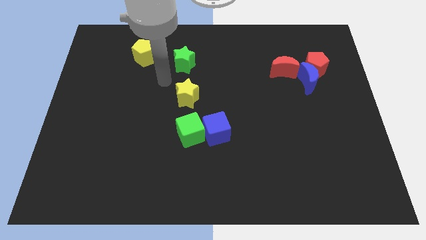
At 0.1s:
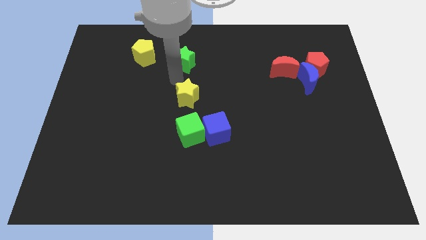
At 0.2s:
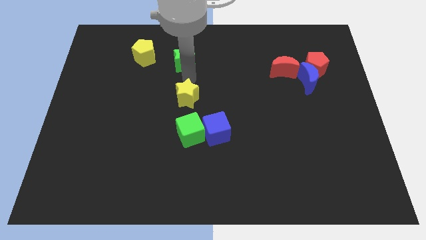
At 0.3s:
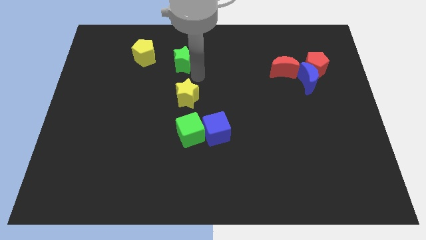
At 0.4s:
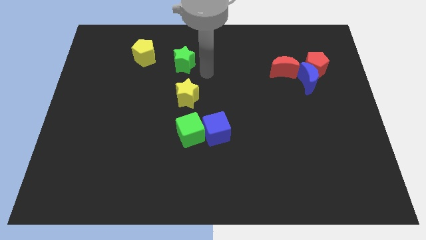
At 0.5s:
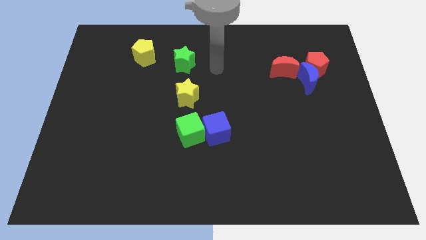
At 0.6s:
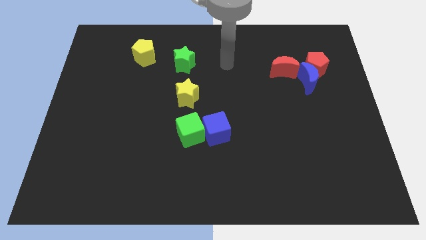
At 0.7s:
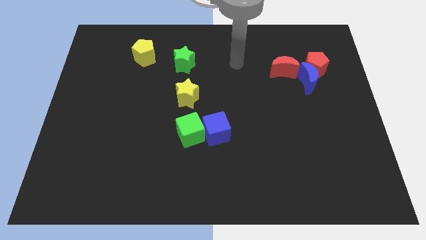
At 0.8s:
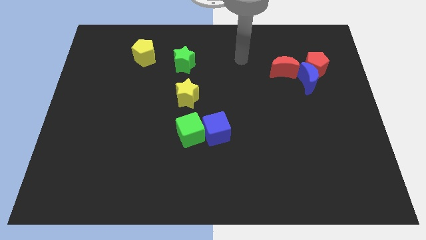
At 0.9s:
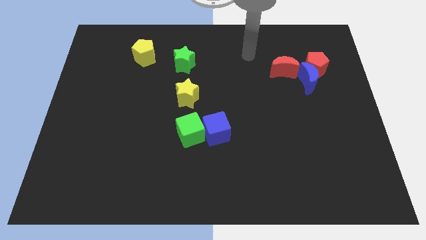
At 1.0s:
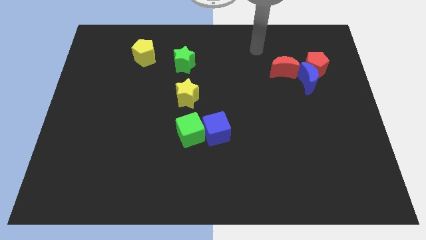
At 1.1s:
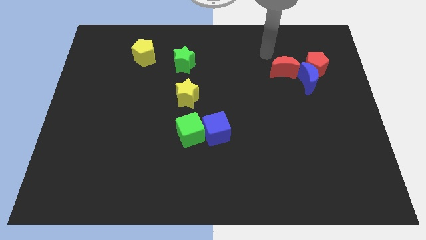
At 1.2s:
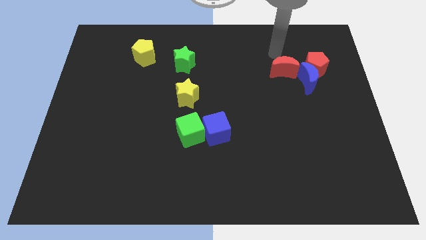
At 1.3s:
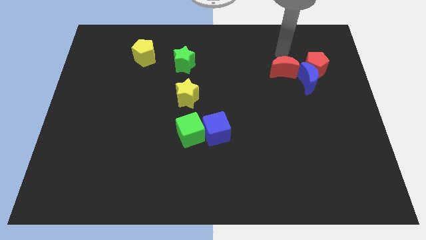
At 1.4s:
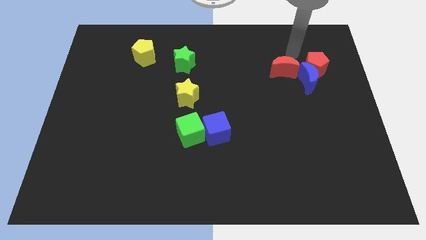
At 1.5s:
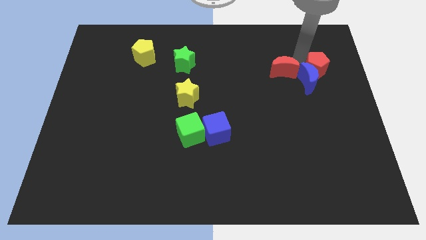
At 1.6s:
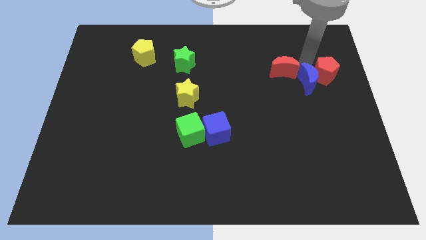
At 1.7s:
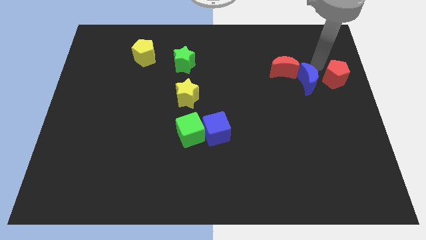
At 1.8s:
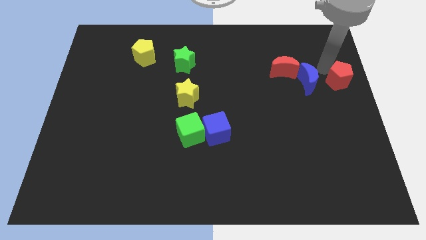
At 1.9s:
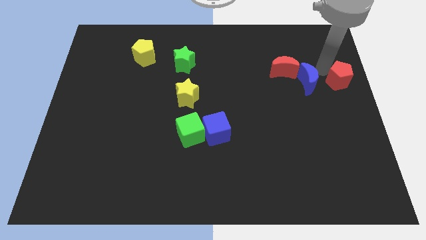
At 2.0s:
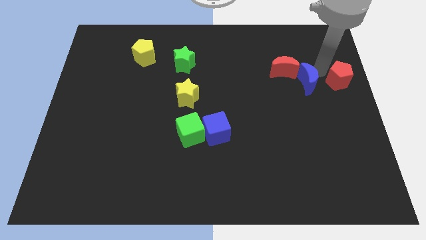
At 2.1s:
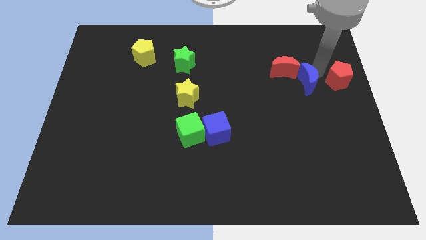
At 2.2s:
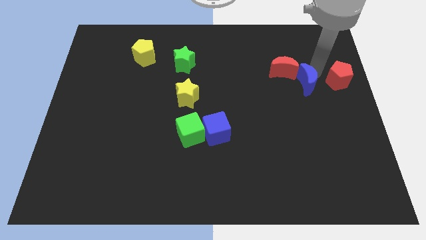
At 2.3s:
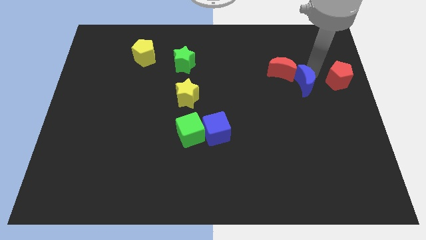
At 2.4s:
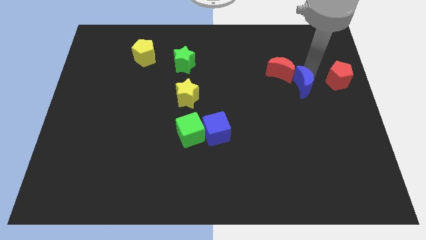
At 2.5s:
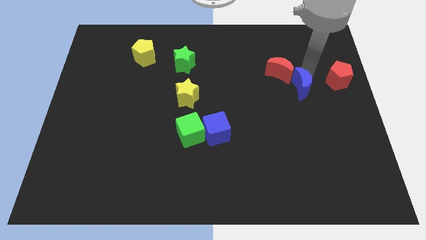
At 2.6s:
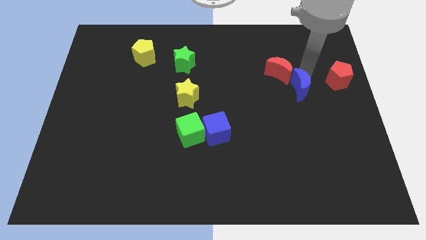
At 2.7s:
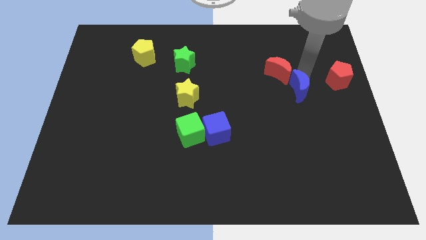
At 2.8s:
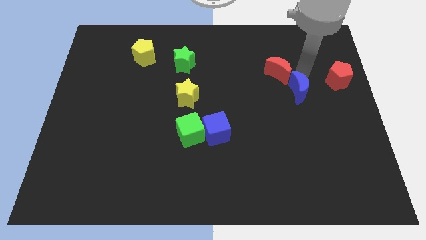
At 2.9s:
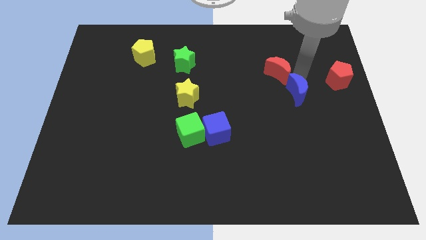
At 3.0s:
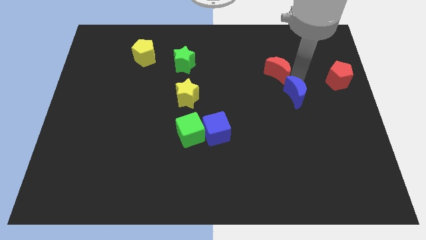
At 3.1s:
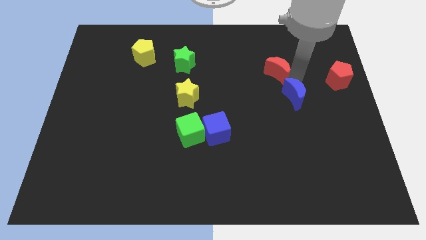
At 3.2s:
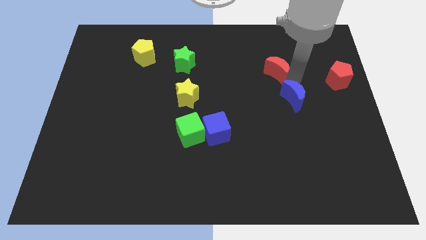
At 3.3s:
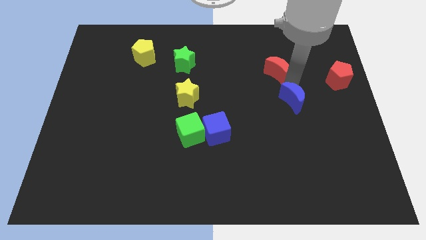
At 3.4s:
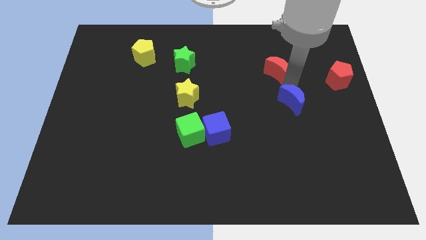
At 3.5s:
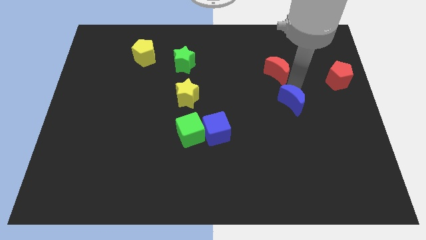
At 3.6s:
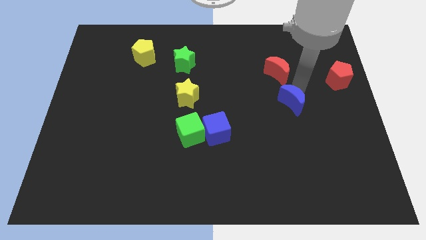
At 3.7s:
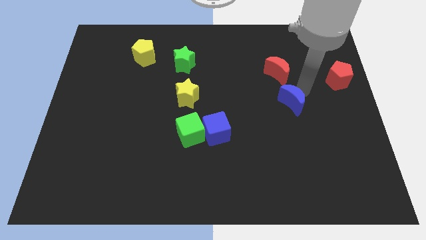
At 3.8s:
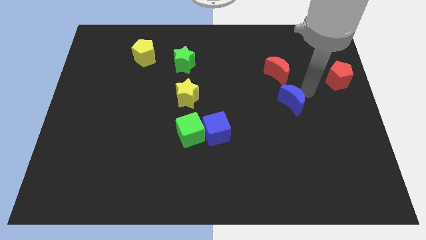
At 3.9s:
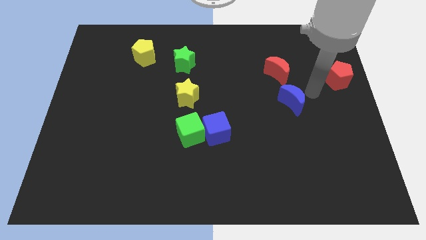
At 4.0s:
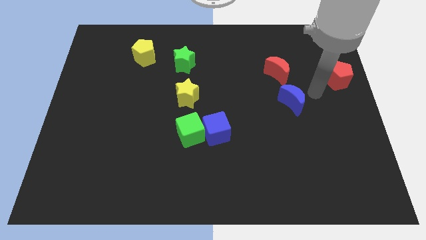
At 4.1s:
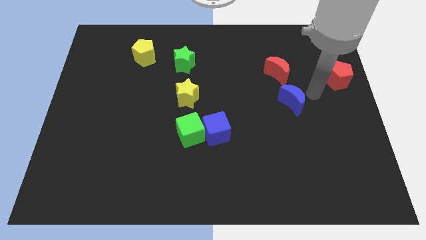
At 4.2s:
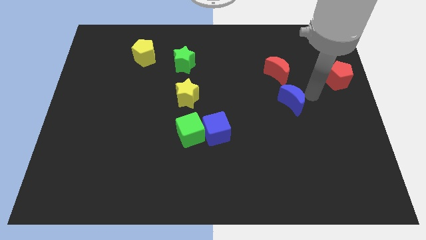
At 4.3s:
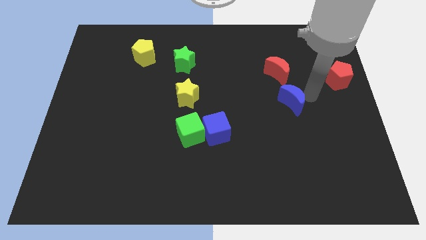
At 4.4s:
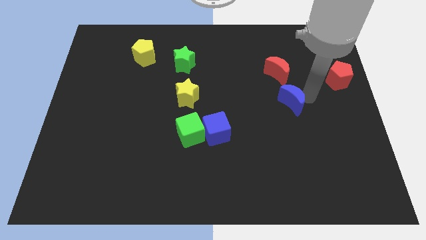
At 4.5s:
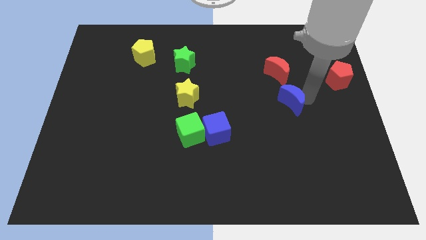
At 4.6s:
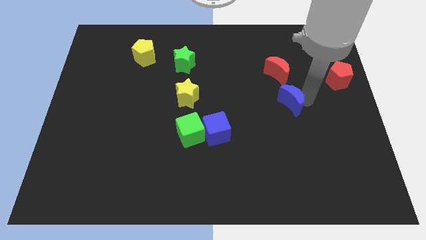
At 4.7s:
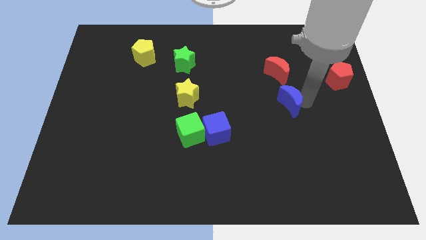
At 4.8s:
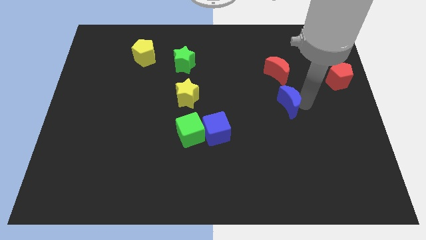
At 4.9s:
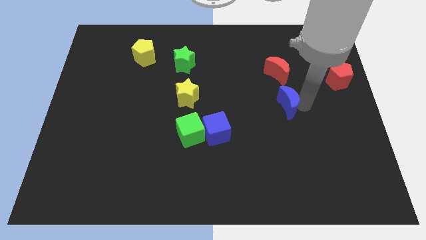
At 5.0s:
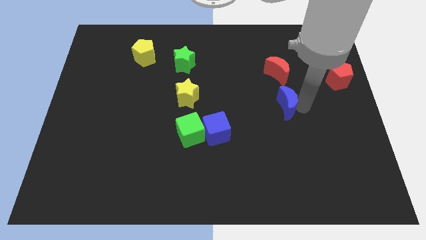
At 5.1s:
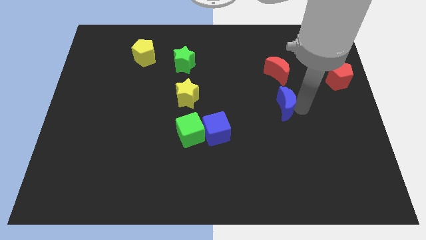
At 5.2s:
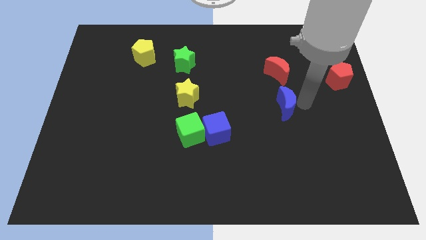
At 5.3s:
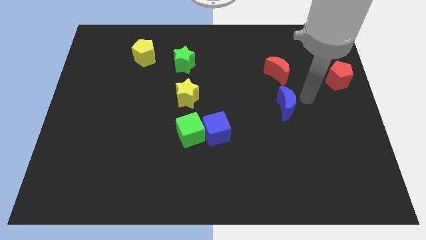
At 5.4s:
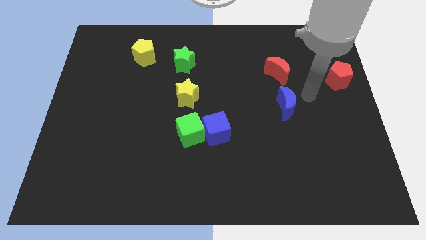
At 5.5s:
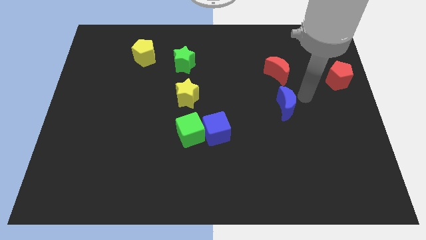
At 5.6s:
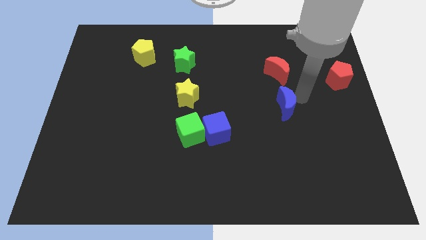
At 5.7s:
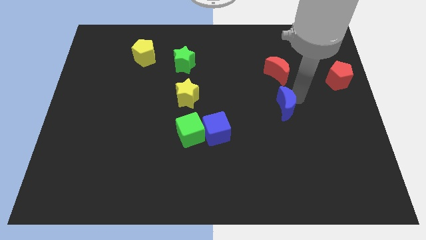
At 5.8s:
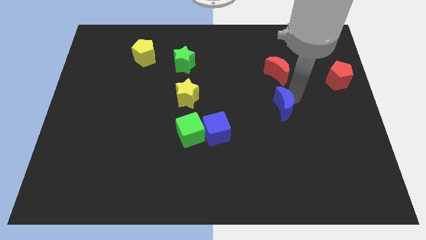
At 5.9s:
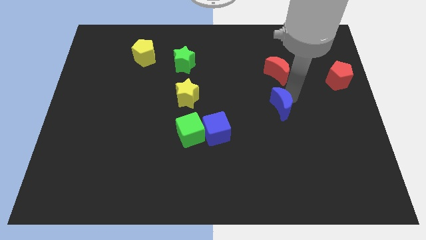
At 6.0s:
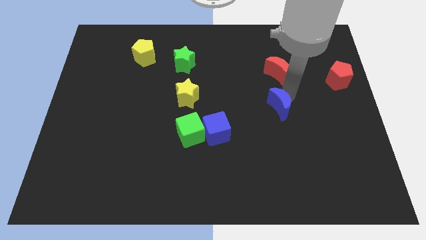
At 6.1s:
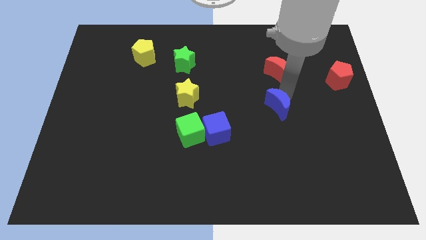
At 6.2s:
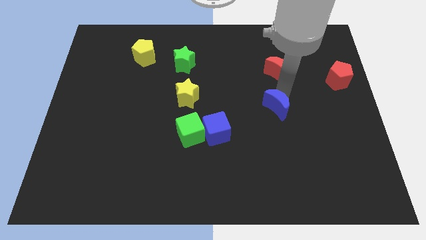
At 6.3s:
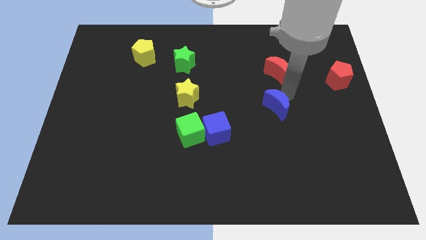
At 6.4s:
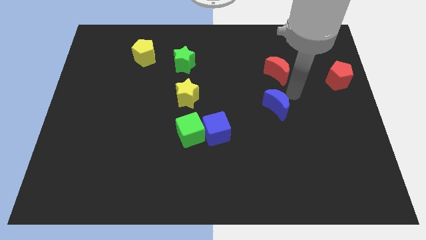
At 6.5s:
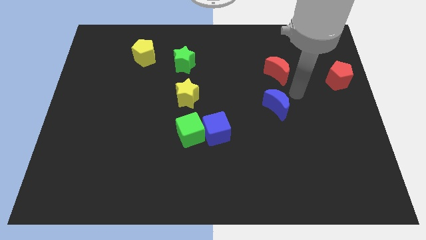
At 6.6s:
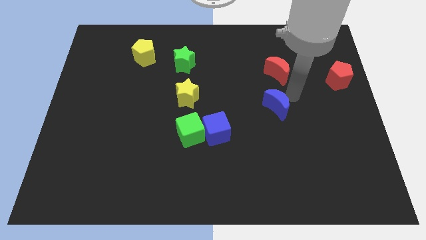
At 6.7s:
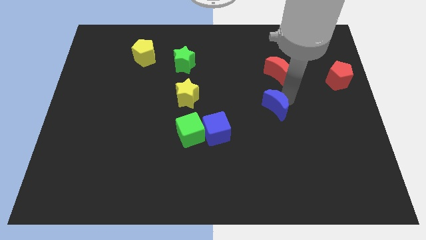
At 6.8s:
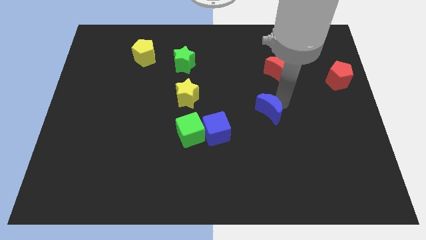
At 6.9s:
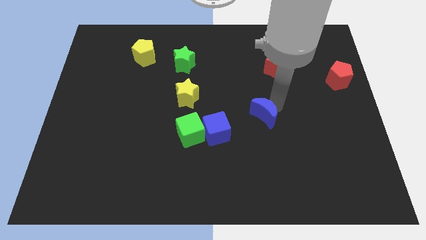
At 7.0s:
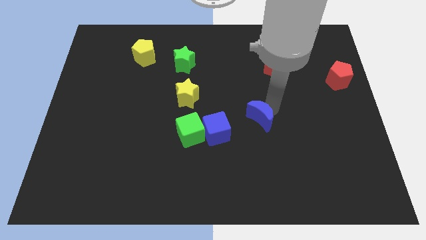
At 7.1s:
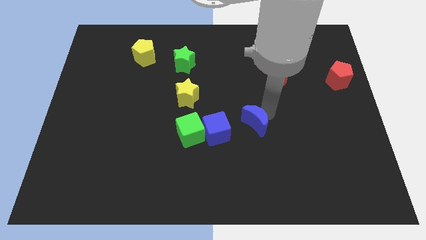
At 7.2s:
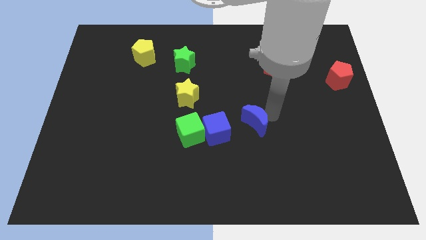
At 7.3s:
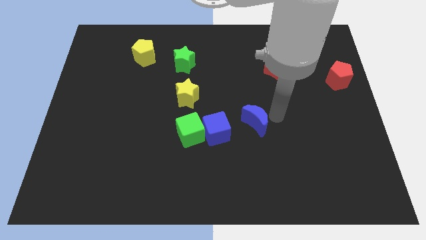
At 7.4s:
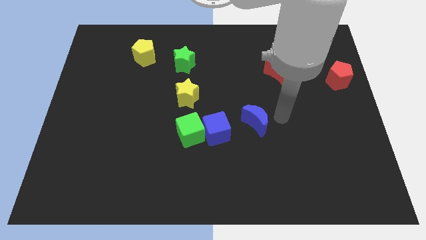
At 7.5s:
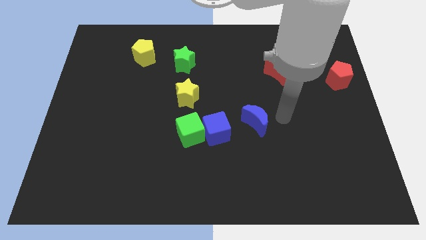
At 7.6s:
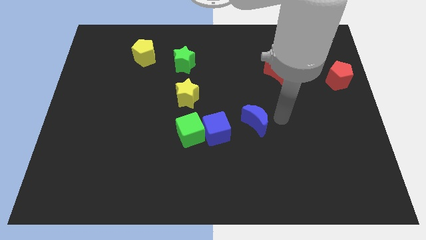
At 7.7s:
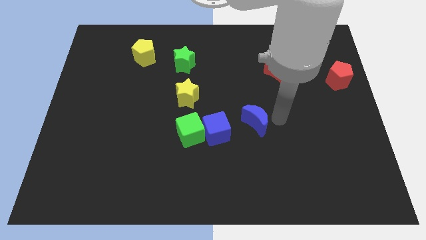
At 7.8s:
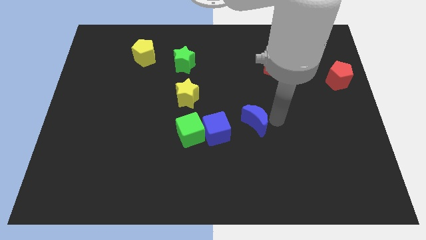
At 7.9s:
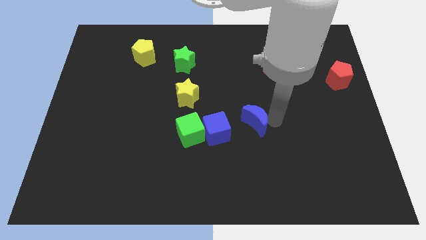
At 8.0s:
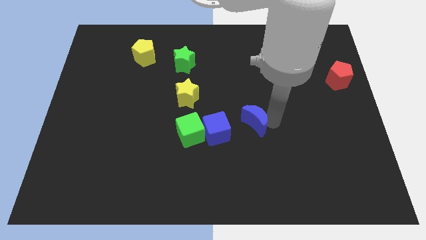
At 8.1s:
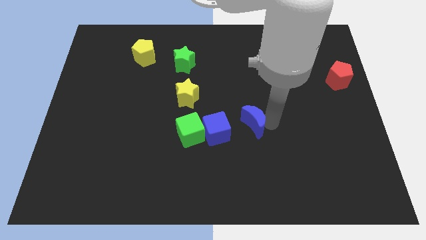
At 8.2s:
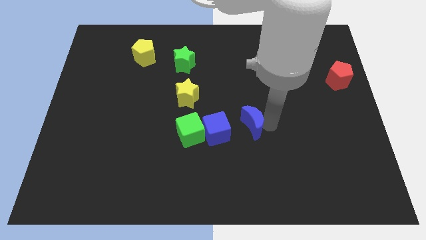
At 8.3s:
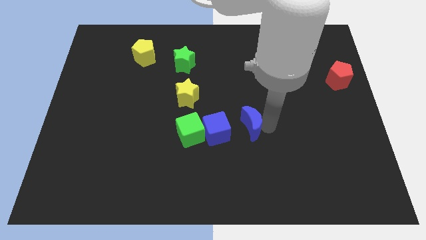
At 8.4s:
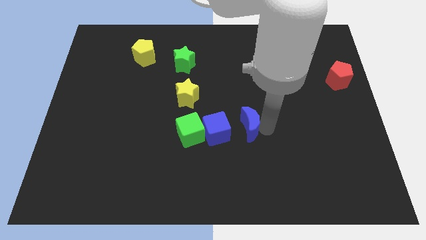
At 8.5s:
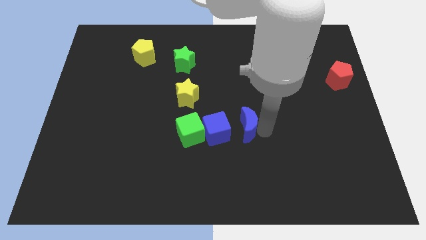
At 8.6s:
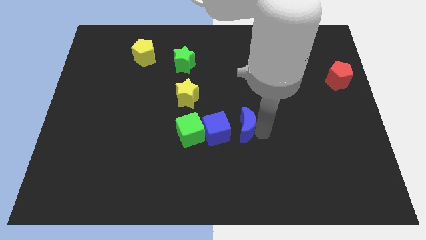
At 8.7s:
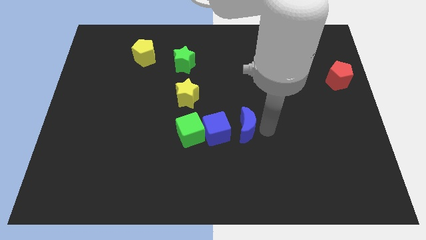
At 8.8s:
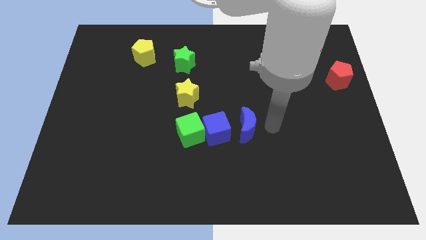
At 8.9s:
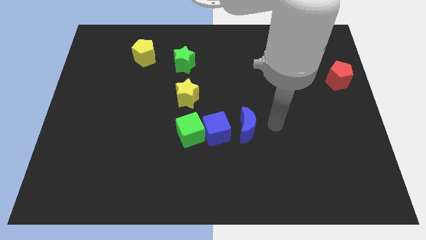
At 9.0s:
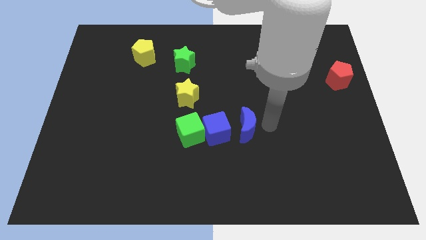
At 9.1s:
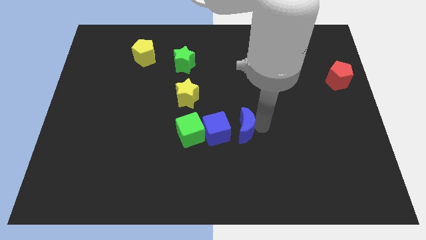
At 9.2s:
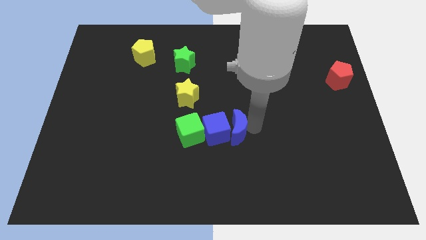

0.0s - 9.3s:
put the blue moon next to the blue cube
